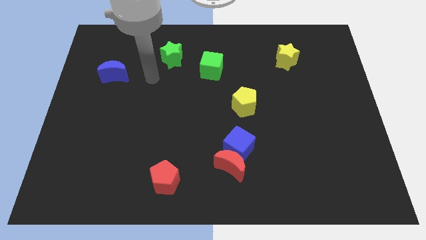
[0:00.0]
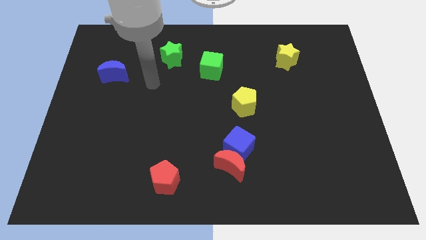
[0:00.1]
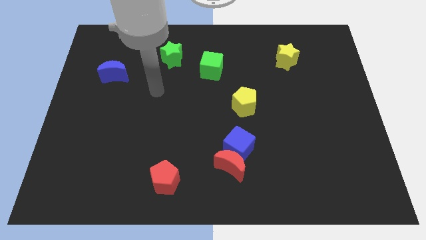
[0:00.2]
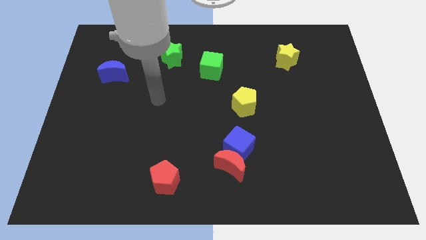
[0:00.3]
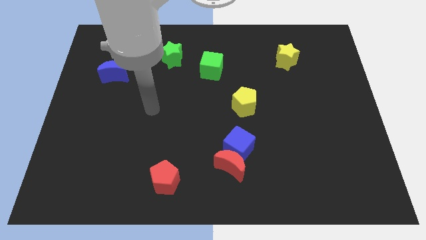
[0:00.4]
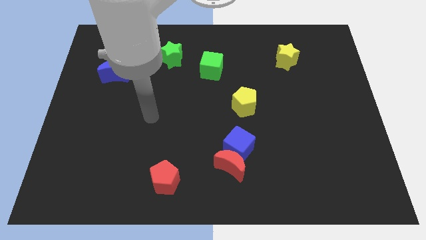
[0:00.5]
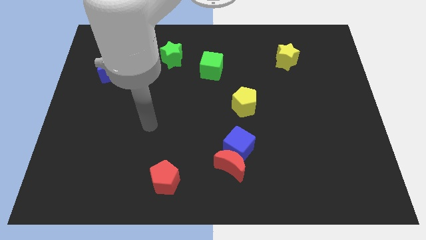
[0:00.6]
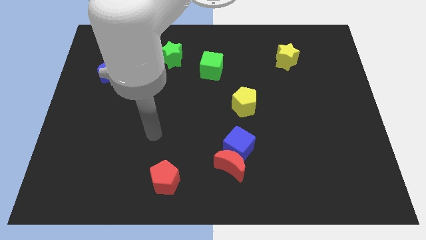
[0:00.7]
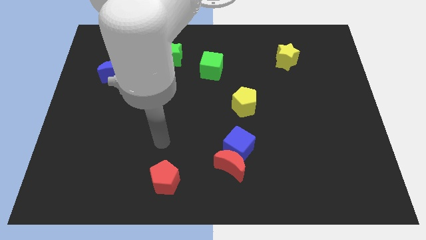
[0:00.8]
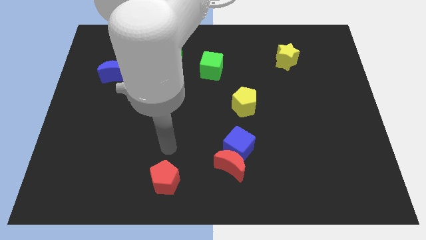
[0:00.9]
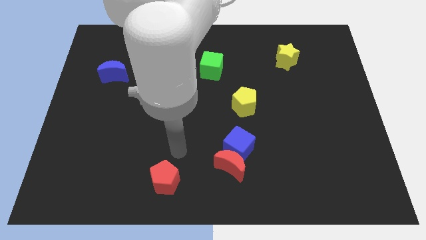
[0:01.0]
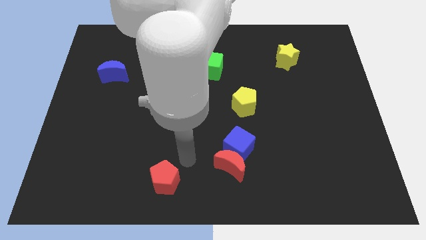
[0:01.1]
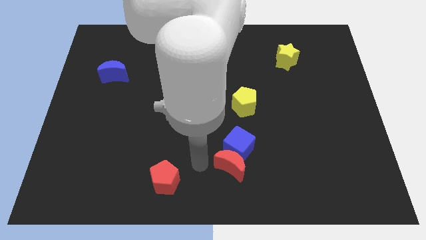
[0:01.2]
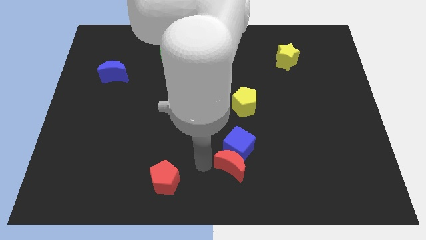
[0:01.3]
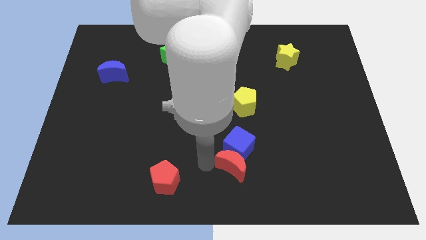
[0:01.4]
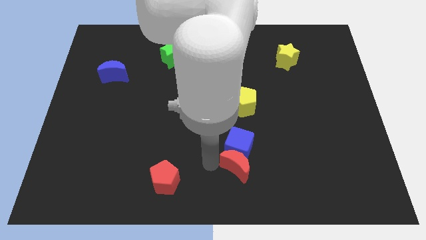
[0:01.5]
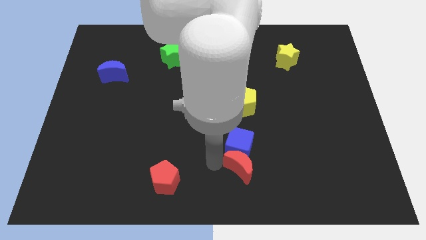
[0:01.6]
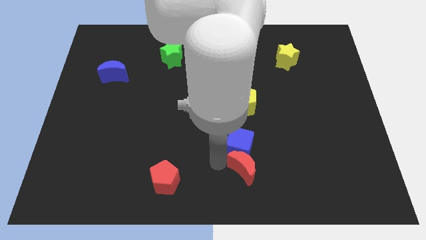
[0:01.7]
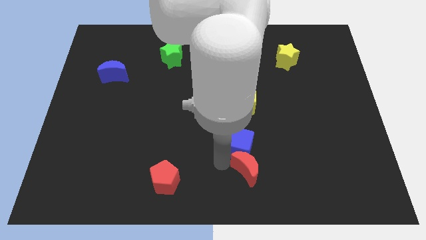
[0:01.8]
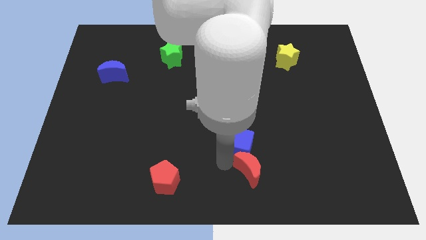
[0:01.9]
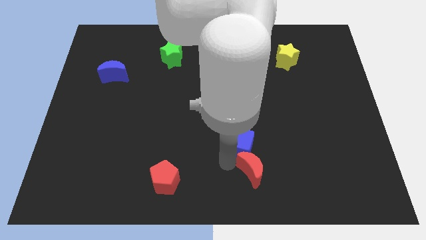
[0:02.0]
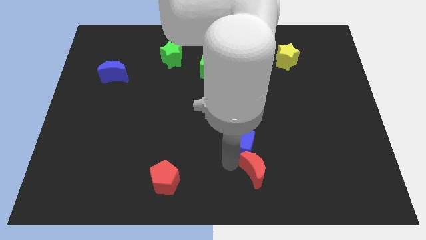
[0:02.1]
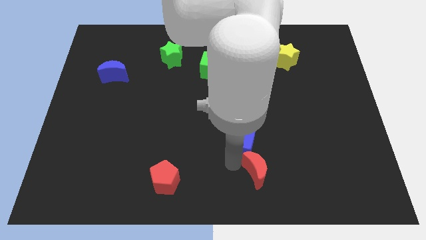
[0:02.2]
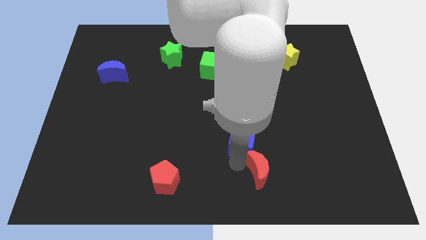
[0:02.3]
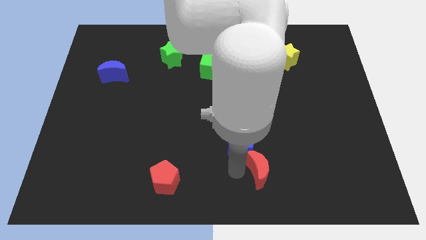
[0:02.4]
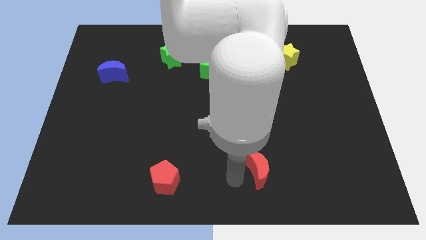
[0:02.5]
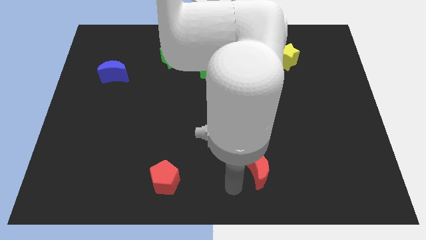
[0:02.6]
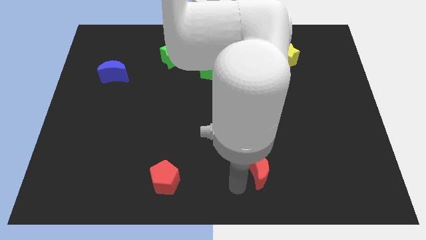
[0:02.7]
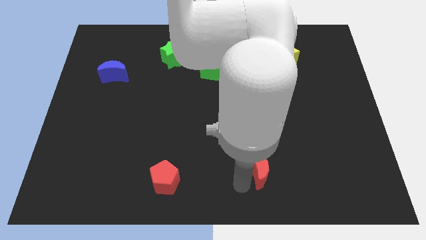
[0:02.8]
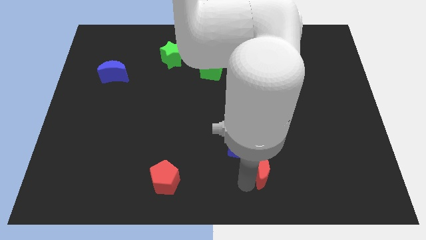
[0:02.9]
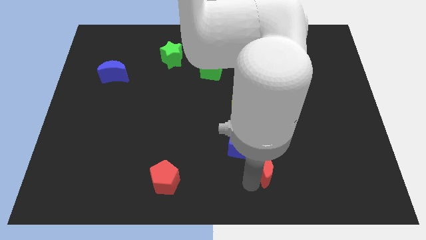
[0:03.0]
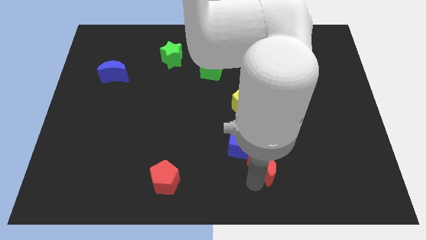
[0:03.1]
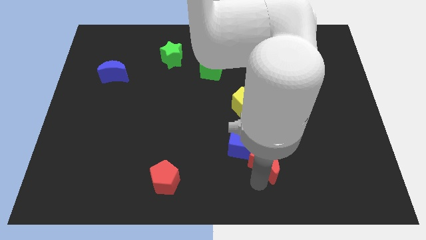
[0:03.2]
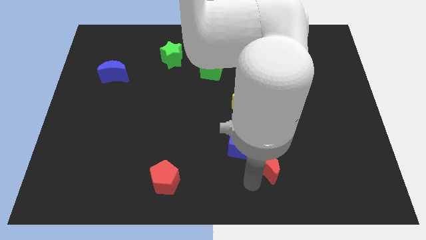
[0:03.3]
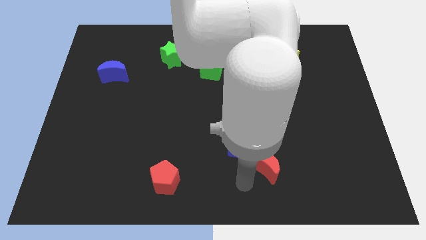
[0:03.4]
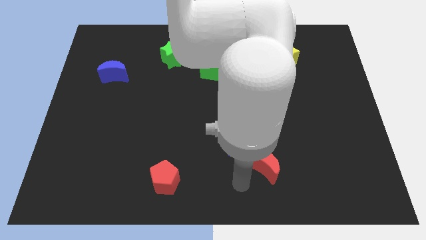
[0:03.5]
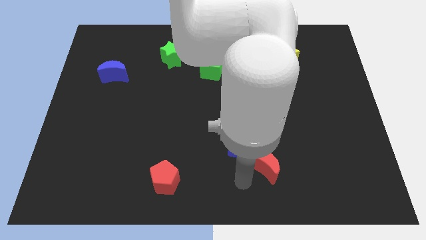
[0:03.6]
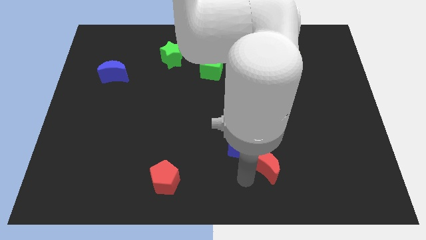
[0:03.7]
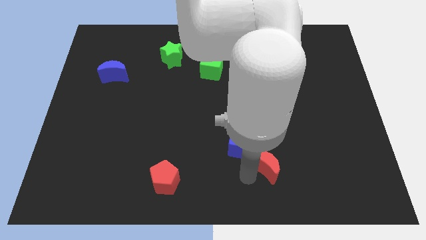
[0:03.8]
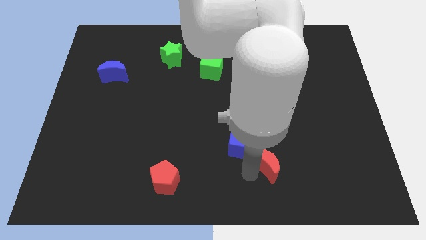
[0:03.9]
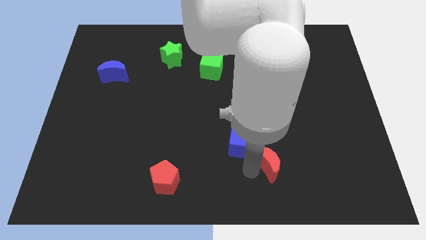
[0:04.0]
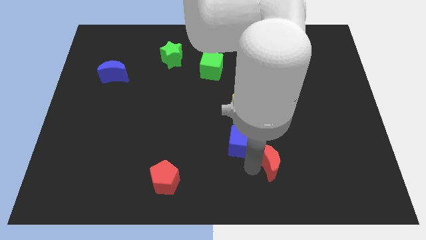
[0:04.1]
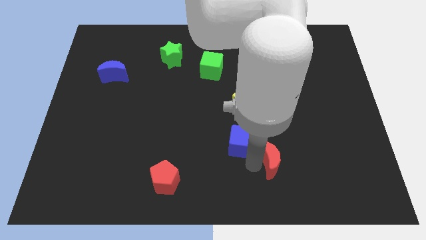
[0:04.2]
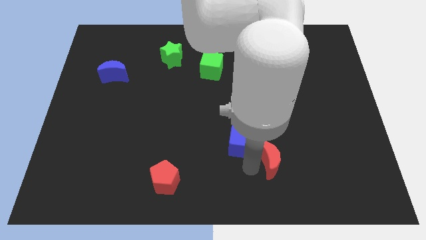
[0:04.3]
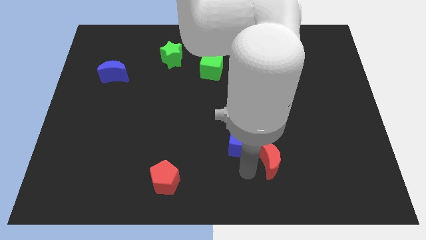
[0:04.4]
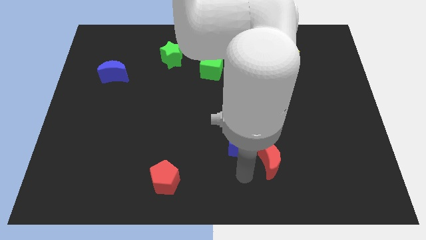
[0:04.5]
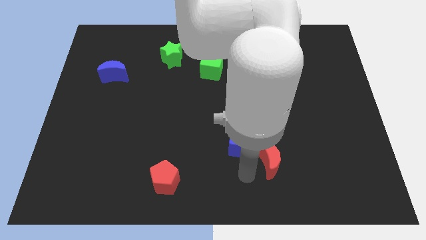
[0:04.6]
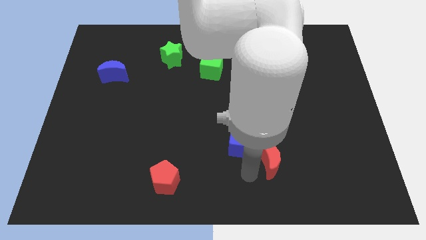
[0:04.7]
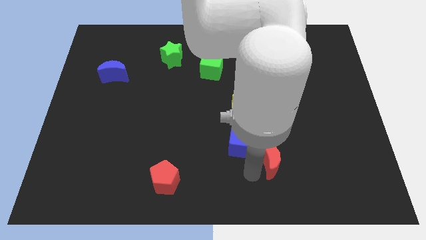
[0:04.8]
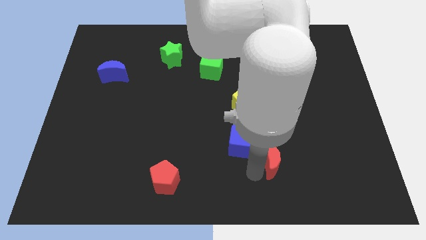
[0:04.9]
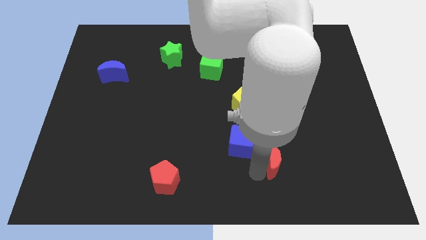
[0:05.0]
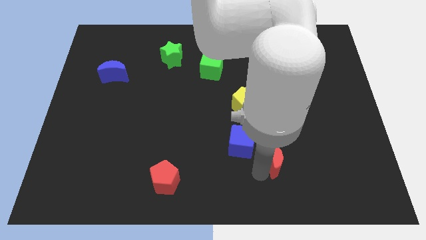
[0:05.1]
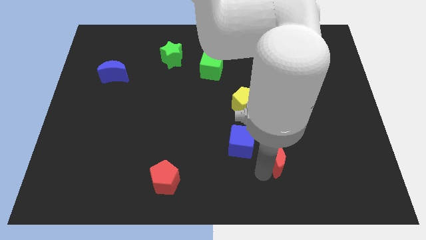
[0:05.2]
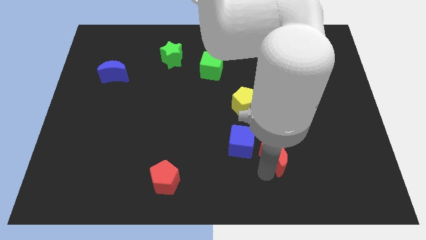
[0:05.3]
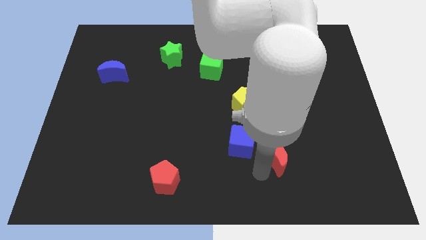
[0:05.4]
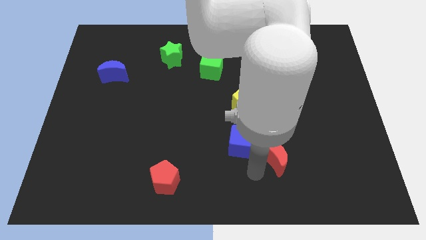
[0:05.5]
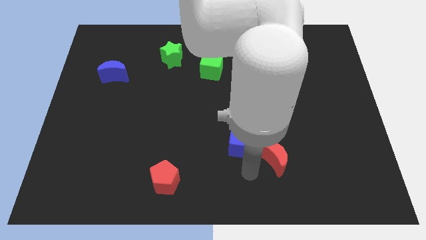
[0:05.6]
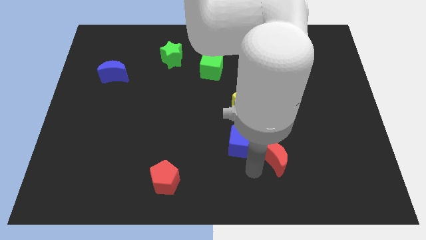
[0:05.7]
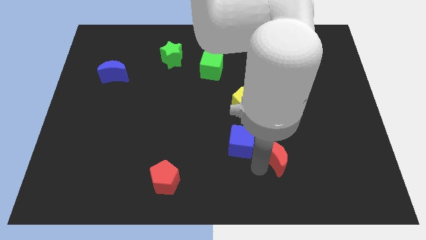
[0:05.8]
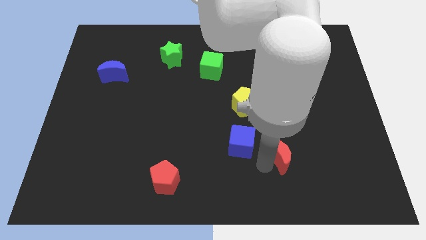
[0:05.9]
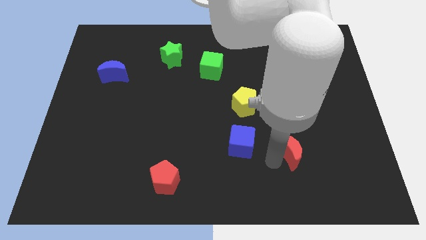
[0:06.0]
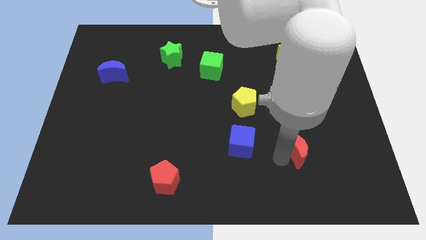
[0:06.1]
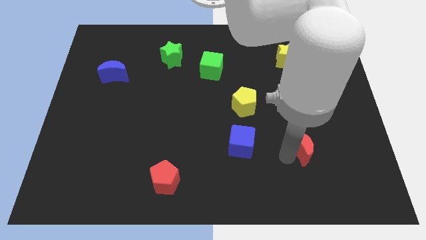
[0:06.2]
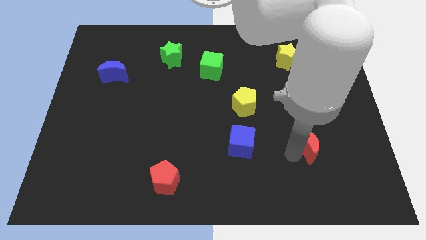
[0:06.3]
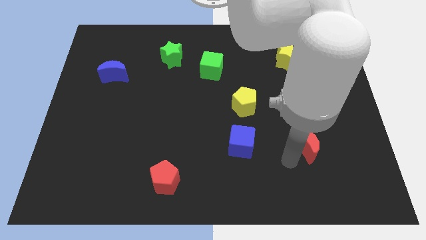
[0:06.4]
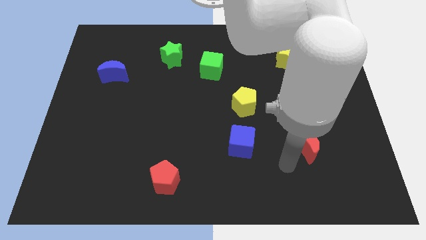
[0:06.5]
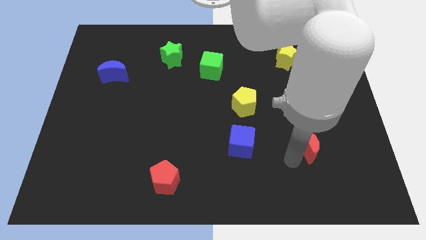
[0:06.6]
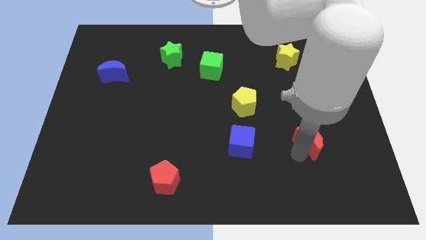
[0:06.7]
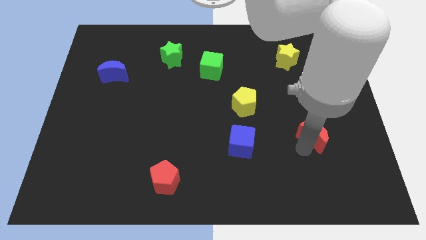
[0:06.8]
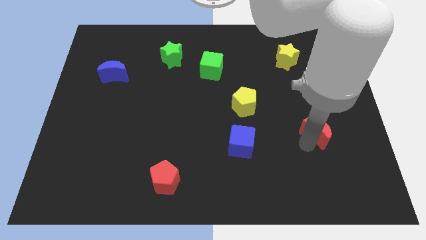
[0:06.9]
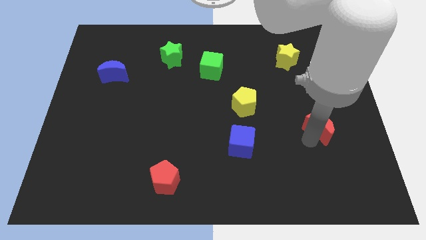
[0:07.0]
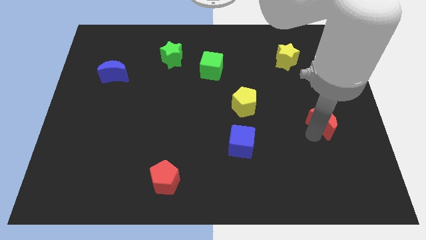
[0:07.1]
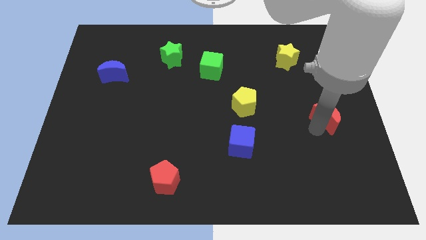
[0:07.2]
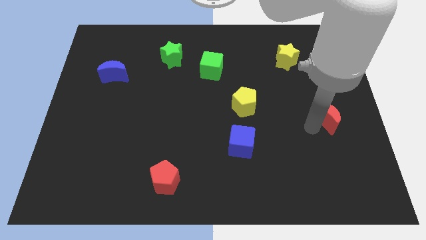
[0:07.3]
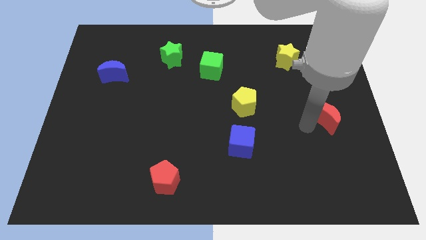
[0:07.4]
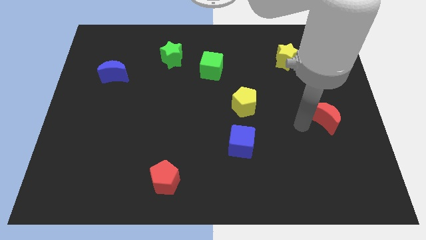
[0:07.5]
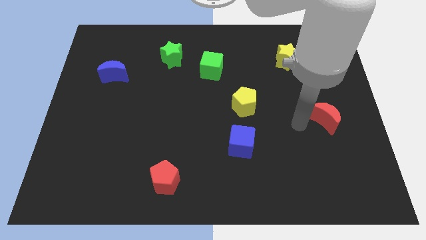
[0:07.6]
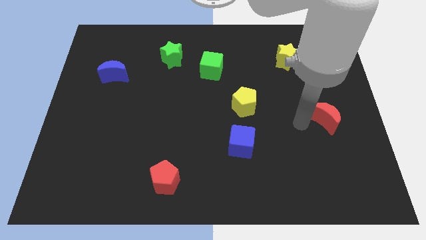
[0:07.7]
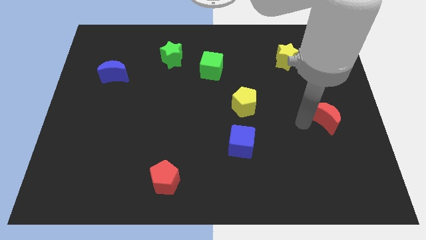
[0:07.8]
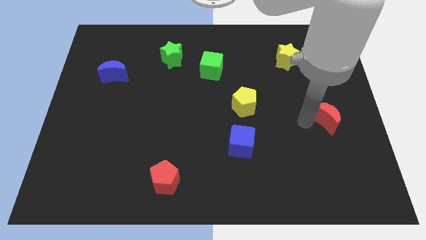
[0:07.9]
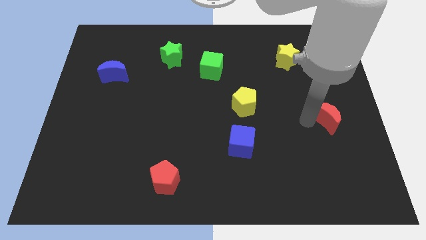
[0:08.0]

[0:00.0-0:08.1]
push the red moon to the right side
